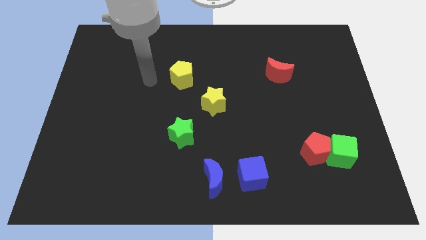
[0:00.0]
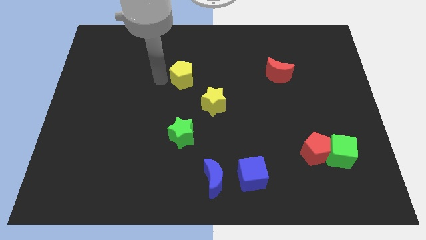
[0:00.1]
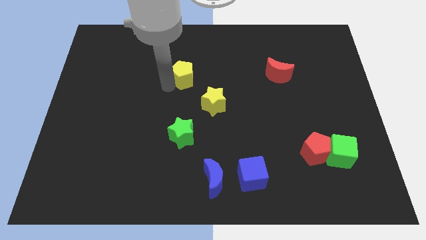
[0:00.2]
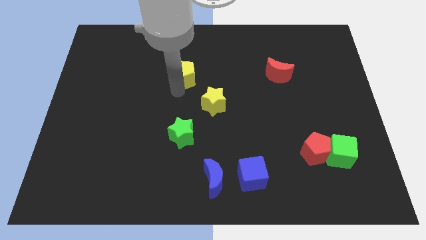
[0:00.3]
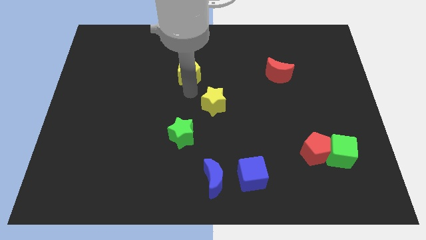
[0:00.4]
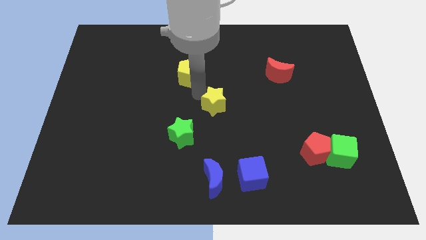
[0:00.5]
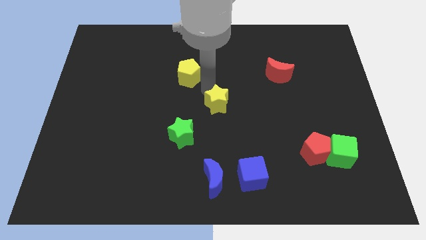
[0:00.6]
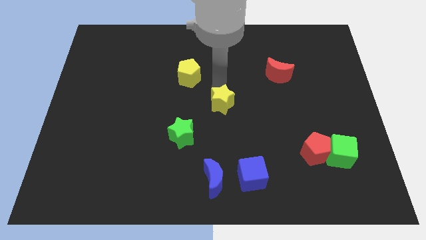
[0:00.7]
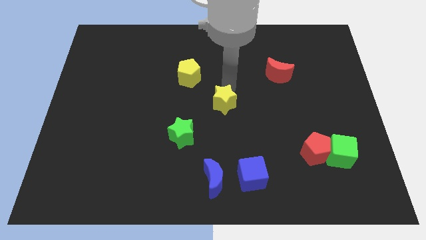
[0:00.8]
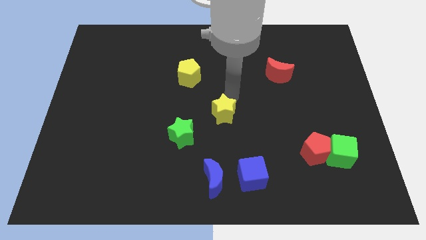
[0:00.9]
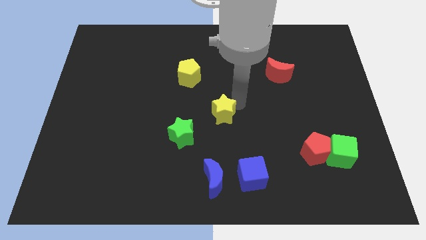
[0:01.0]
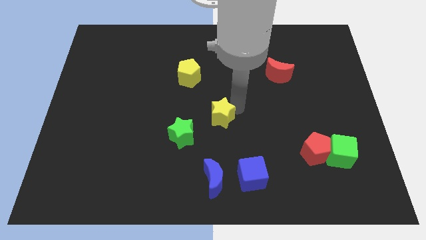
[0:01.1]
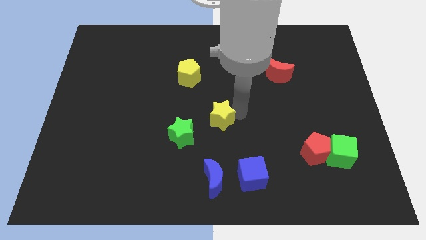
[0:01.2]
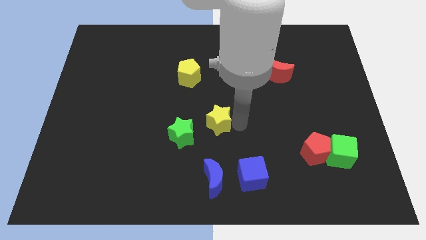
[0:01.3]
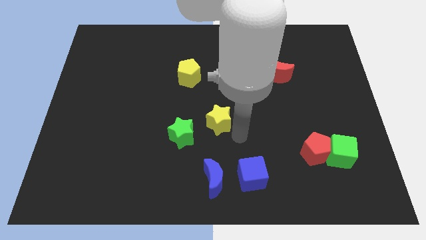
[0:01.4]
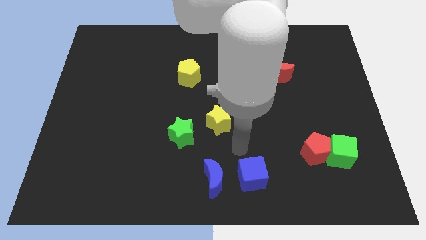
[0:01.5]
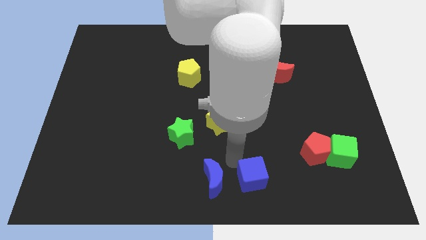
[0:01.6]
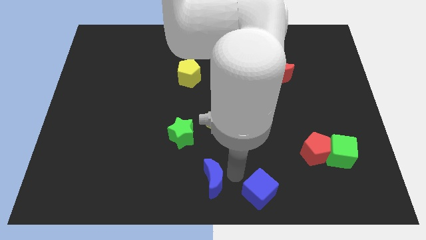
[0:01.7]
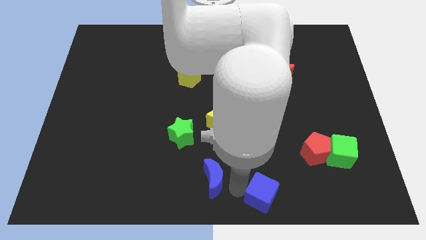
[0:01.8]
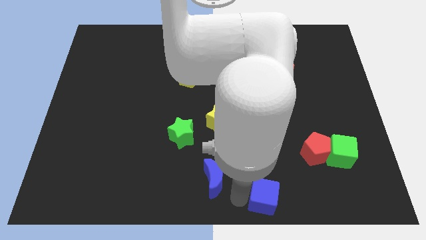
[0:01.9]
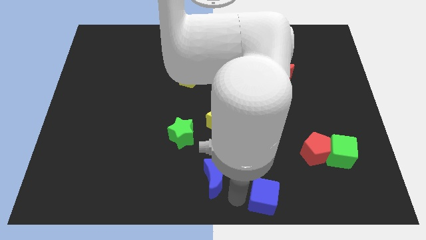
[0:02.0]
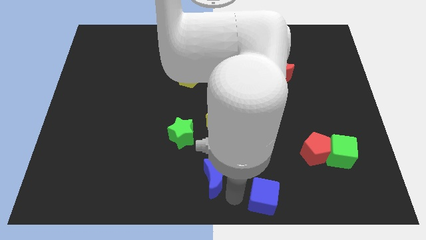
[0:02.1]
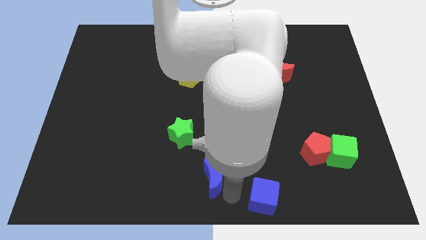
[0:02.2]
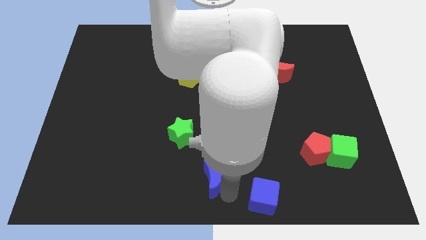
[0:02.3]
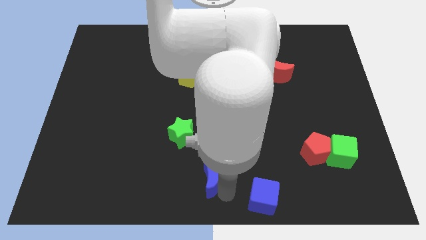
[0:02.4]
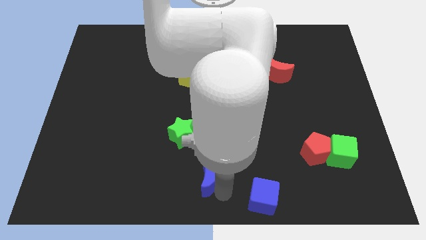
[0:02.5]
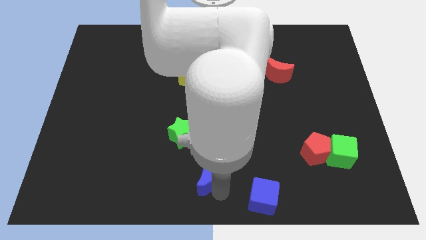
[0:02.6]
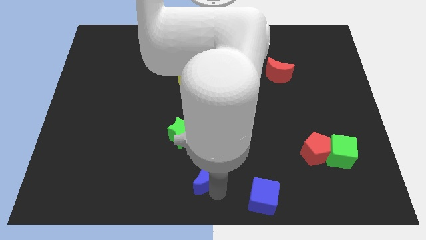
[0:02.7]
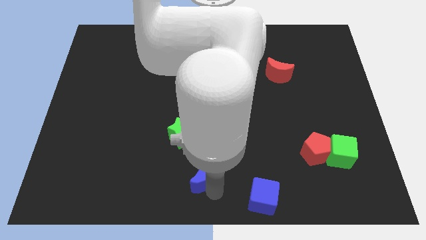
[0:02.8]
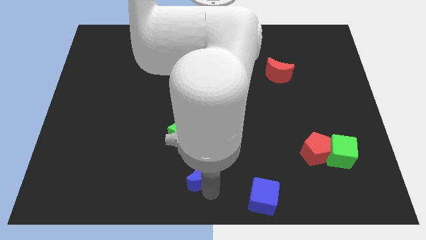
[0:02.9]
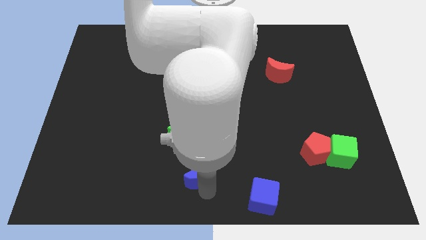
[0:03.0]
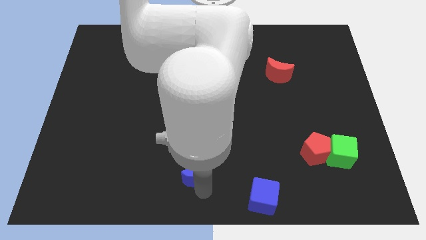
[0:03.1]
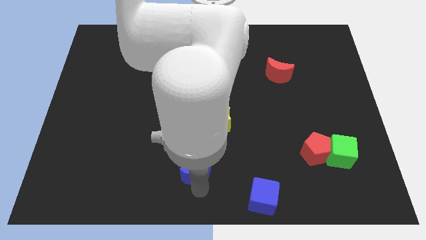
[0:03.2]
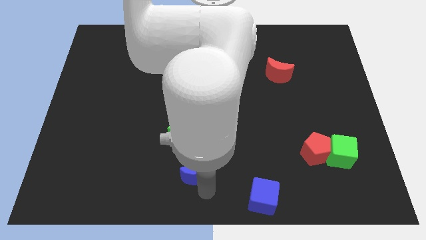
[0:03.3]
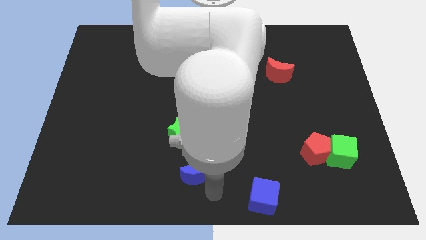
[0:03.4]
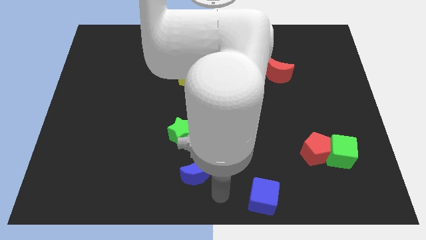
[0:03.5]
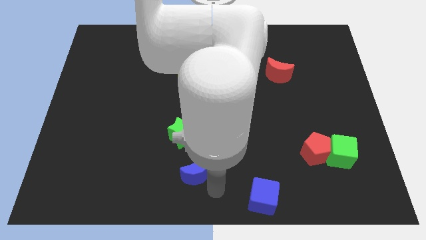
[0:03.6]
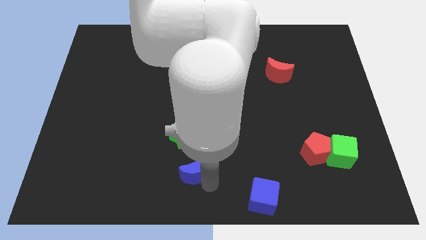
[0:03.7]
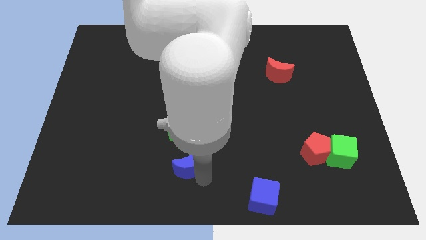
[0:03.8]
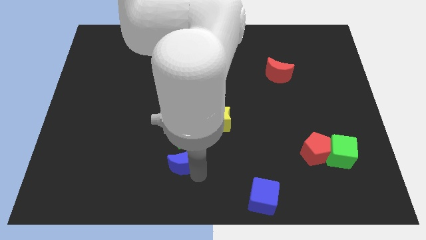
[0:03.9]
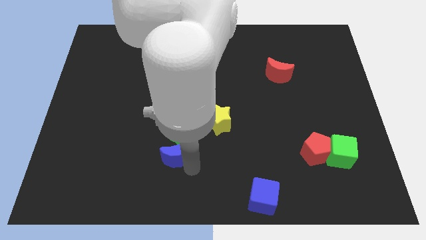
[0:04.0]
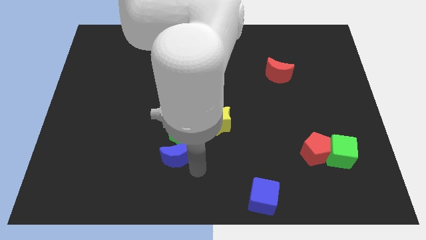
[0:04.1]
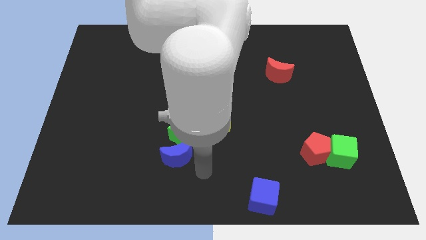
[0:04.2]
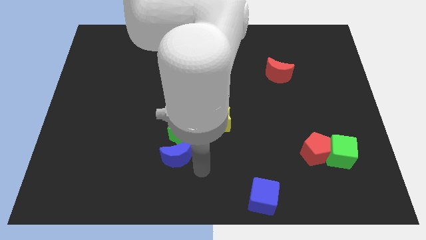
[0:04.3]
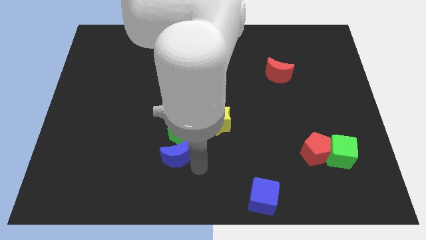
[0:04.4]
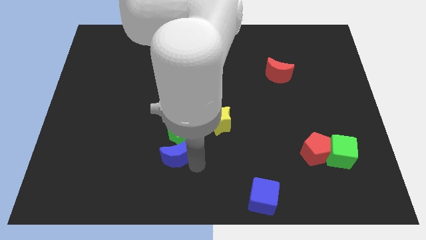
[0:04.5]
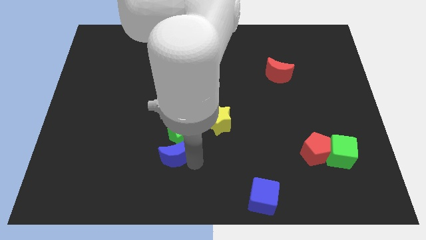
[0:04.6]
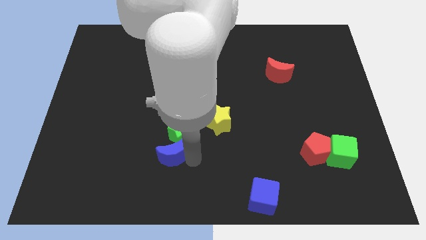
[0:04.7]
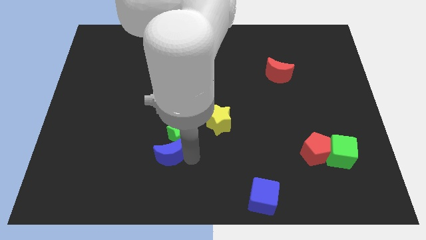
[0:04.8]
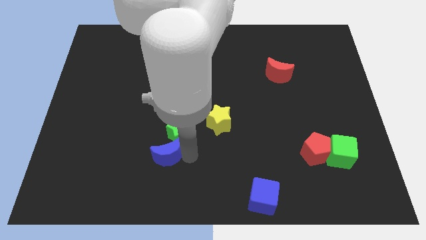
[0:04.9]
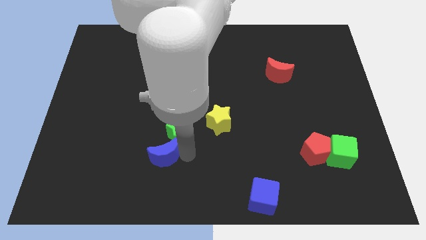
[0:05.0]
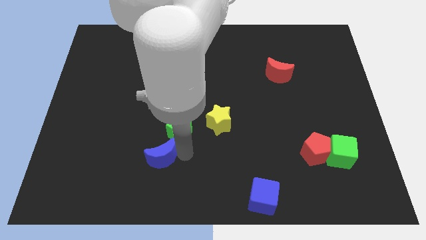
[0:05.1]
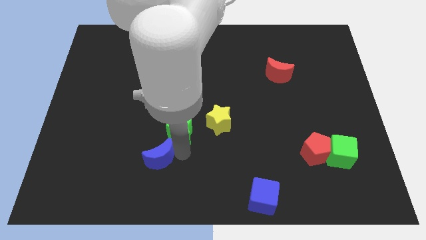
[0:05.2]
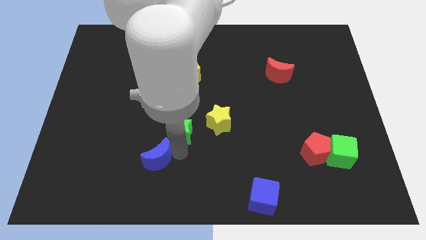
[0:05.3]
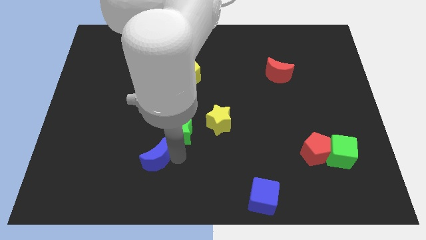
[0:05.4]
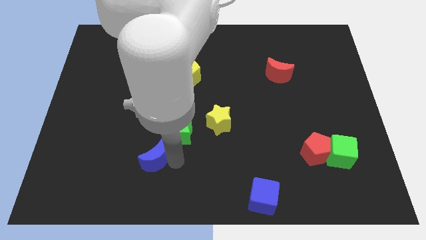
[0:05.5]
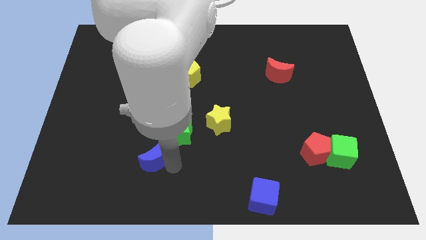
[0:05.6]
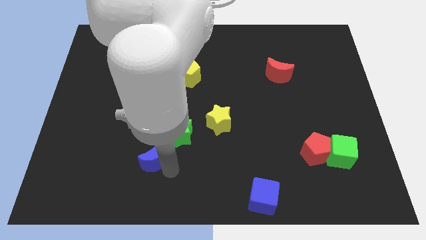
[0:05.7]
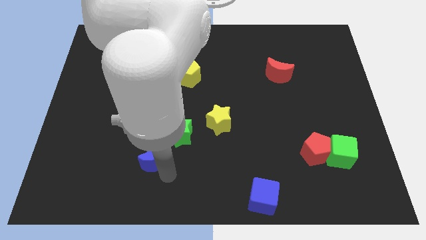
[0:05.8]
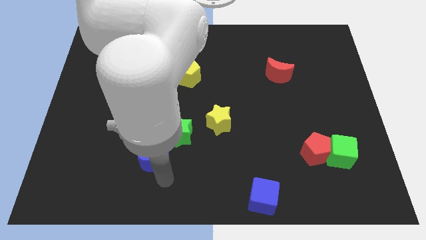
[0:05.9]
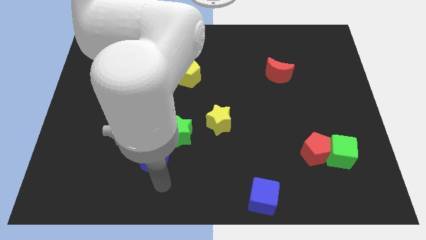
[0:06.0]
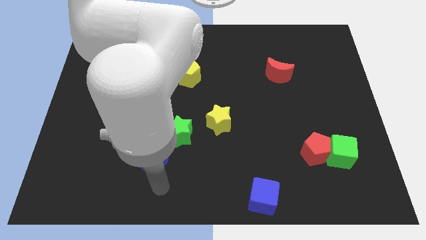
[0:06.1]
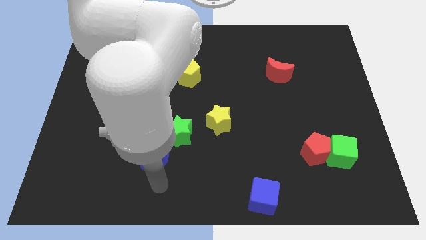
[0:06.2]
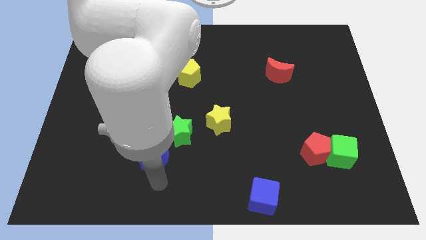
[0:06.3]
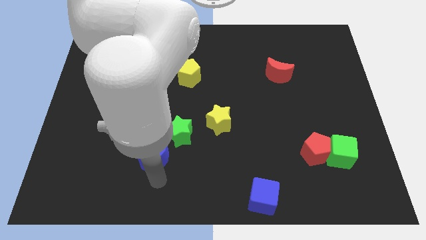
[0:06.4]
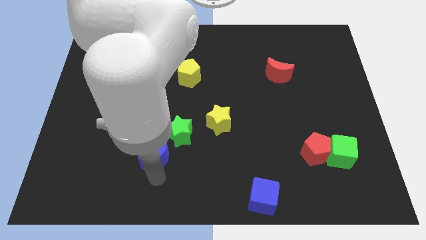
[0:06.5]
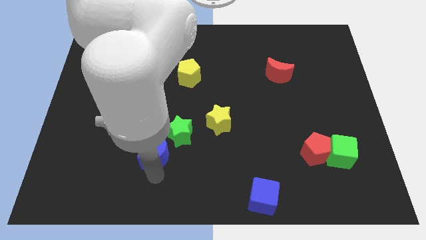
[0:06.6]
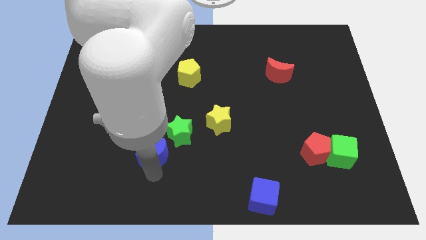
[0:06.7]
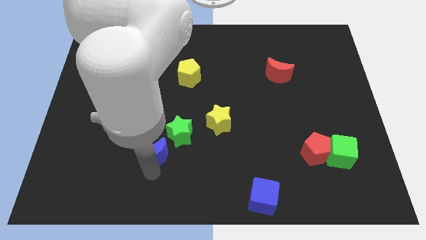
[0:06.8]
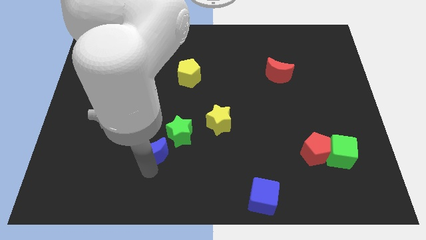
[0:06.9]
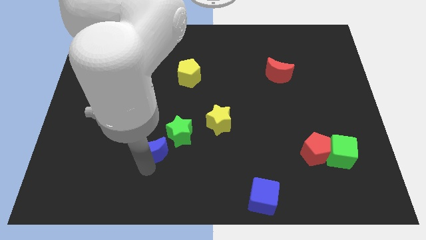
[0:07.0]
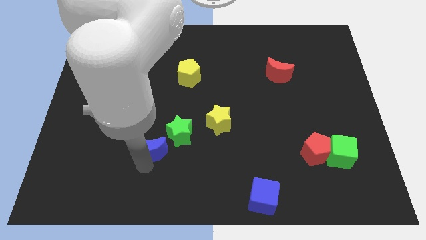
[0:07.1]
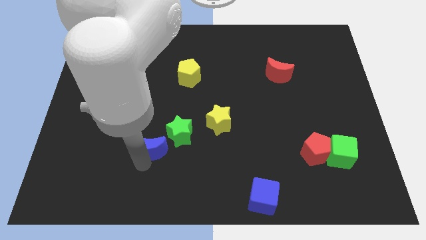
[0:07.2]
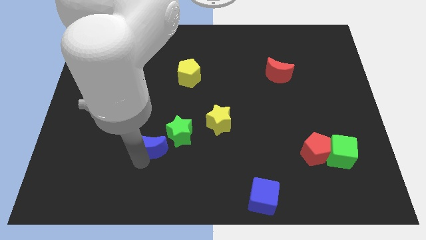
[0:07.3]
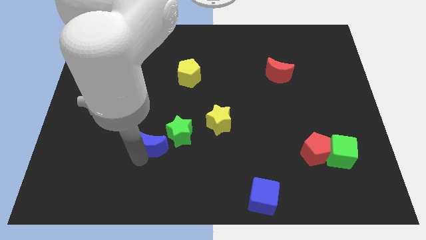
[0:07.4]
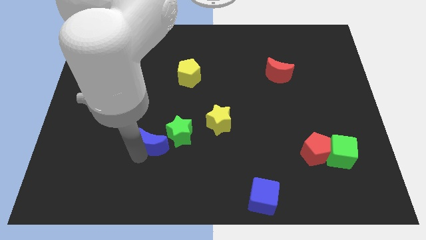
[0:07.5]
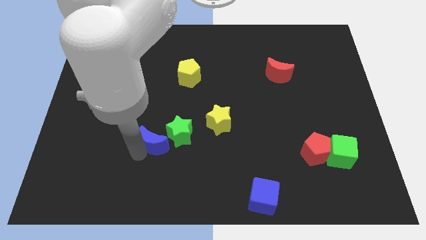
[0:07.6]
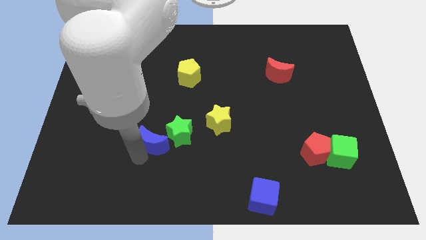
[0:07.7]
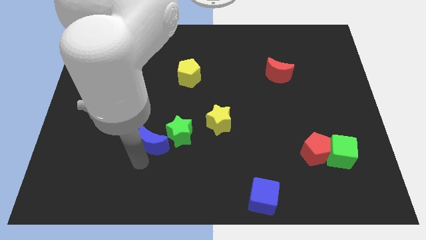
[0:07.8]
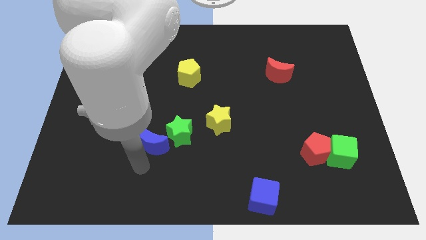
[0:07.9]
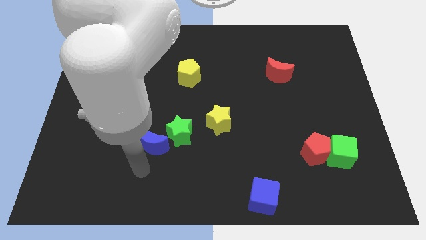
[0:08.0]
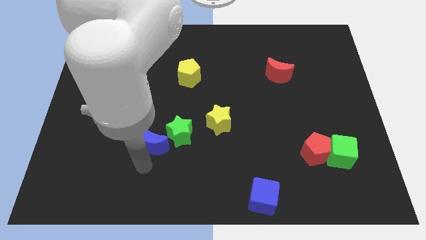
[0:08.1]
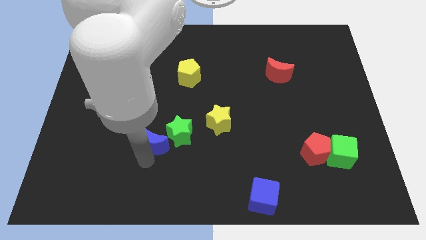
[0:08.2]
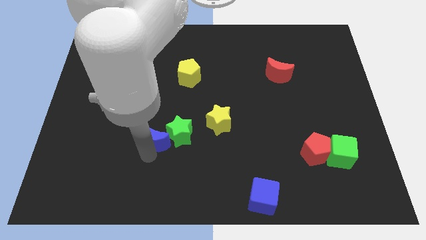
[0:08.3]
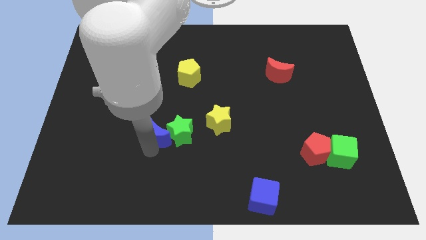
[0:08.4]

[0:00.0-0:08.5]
put the blue moon to the top left of the green star
